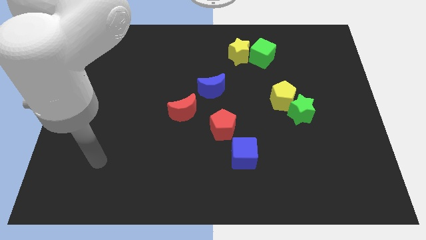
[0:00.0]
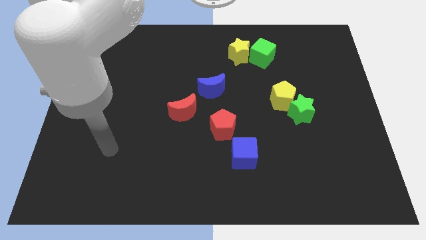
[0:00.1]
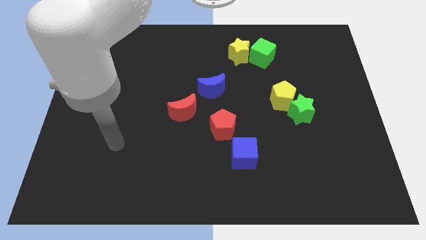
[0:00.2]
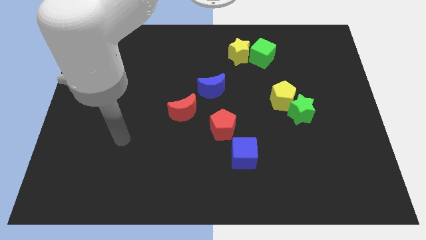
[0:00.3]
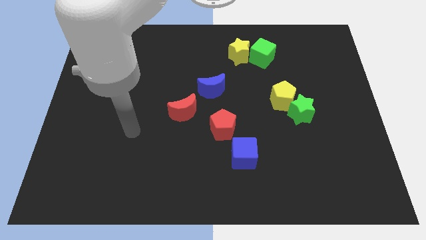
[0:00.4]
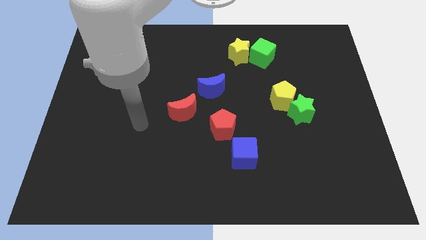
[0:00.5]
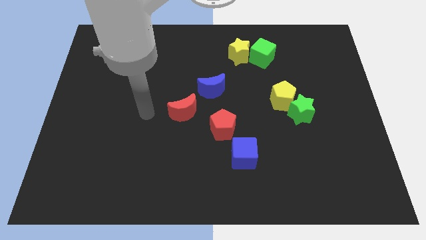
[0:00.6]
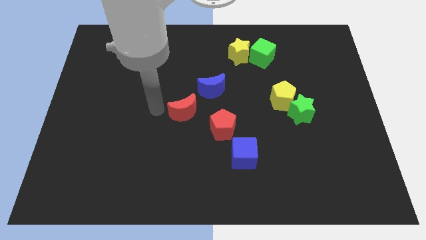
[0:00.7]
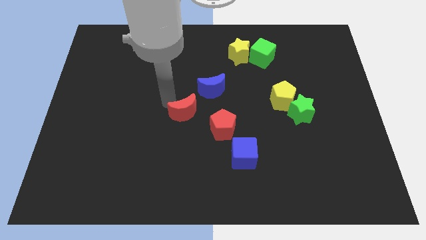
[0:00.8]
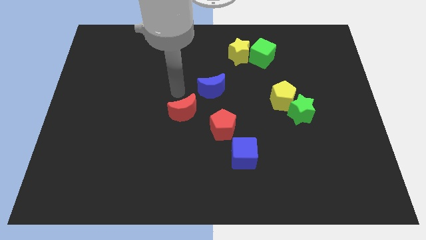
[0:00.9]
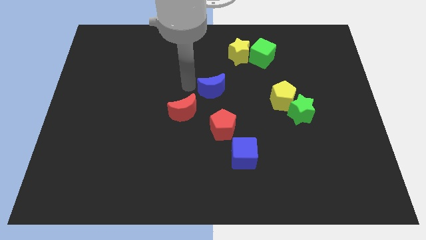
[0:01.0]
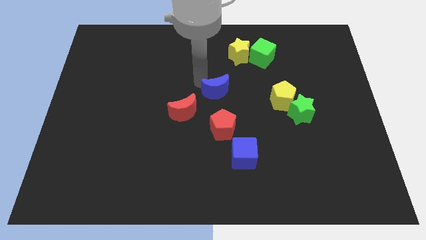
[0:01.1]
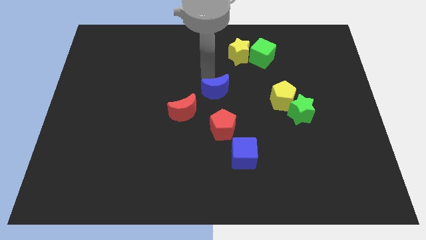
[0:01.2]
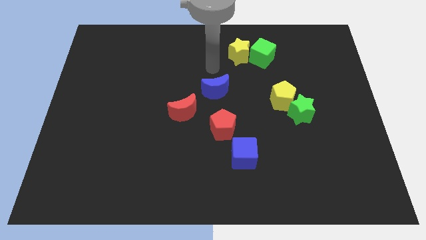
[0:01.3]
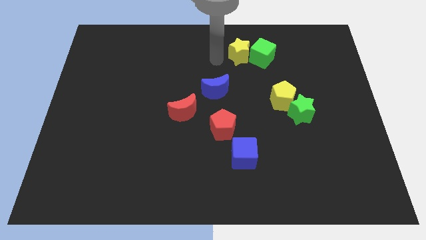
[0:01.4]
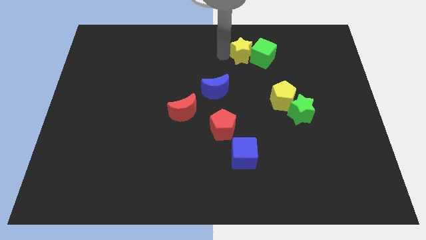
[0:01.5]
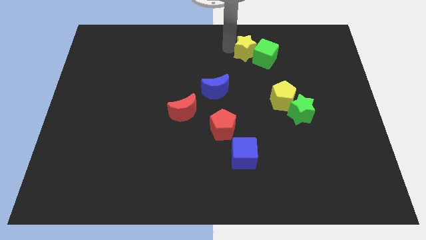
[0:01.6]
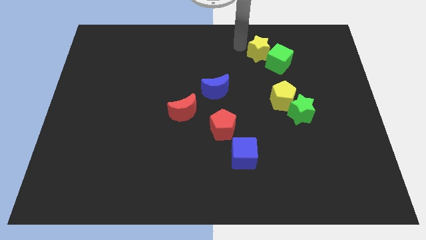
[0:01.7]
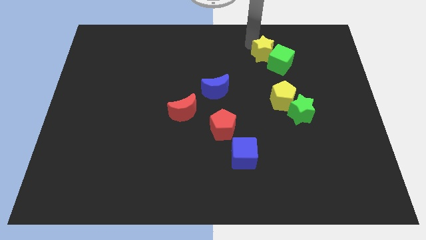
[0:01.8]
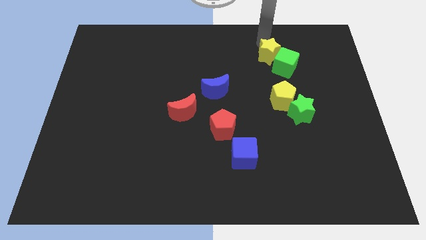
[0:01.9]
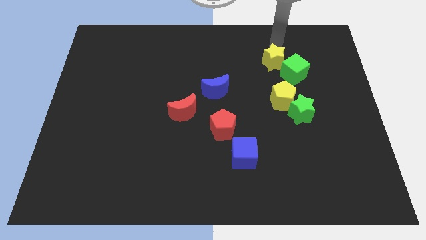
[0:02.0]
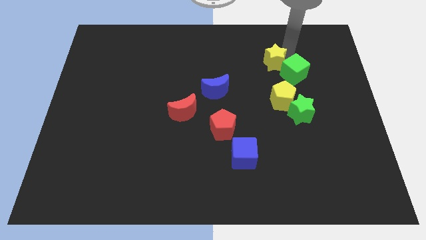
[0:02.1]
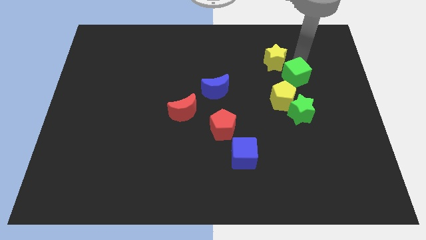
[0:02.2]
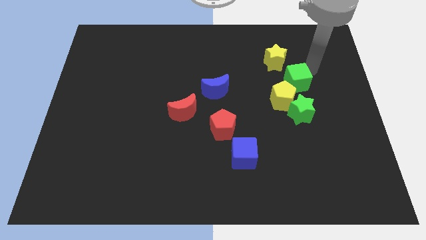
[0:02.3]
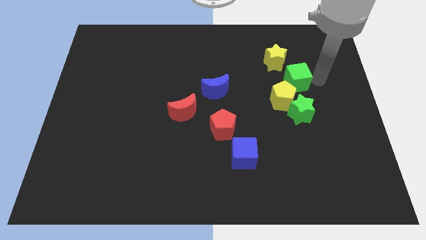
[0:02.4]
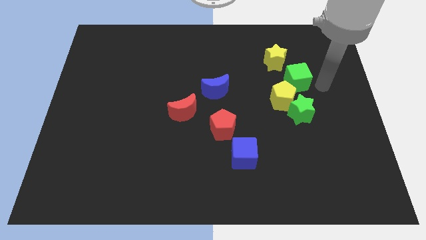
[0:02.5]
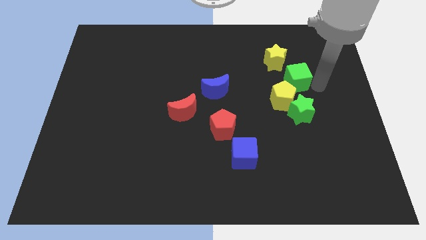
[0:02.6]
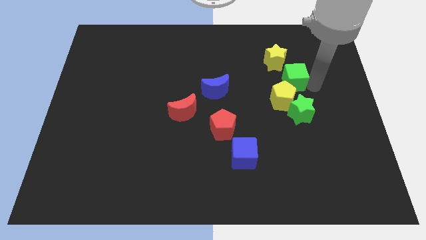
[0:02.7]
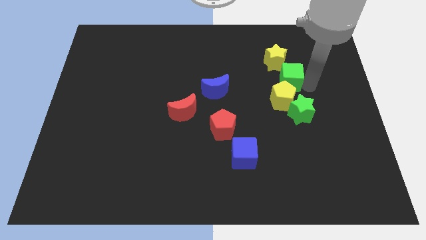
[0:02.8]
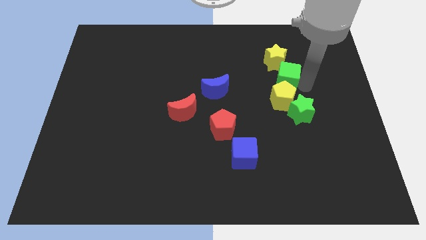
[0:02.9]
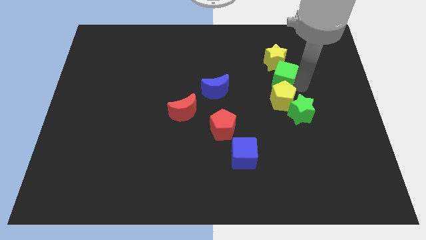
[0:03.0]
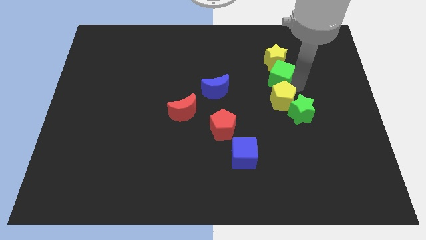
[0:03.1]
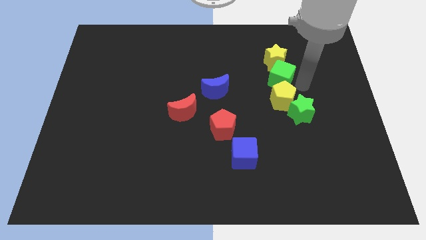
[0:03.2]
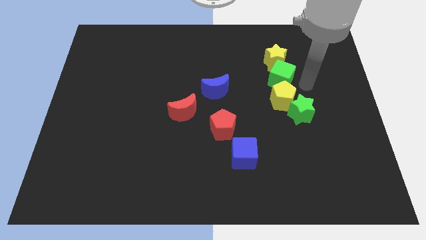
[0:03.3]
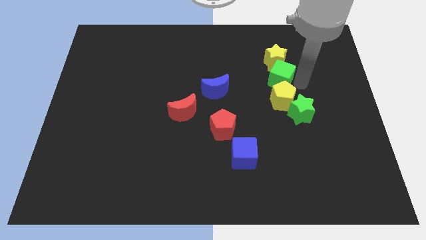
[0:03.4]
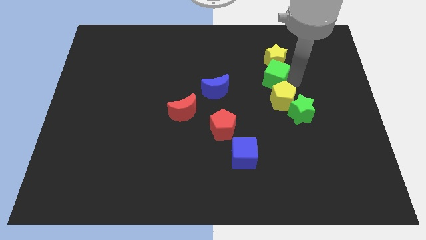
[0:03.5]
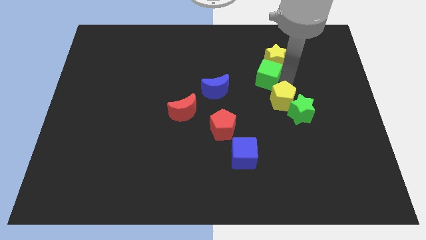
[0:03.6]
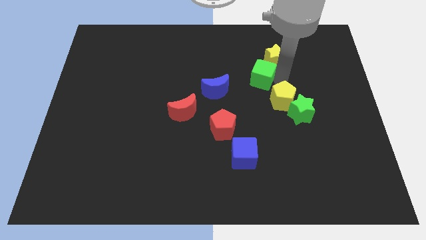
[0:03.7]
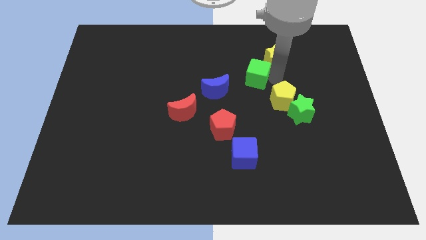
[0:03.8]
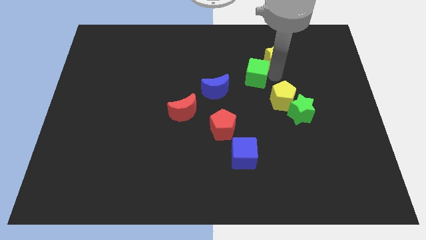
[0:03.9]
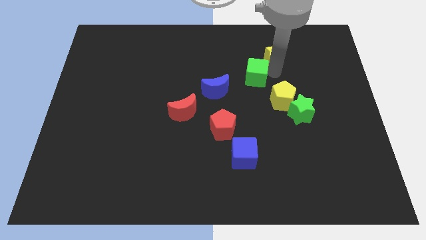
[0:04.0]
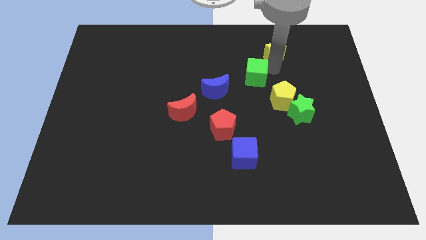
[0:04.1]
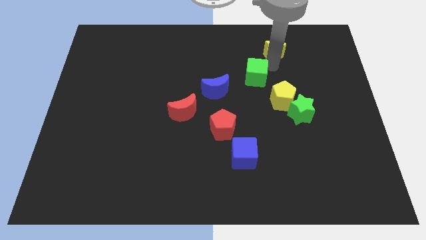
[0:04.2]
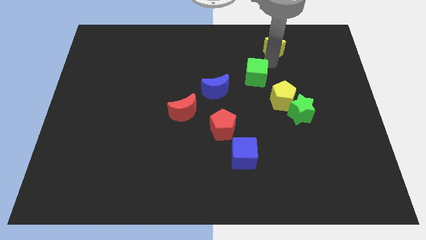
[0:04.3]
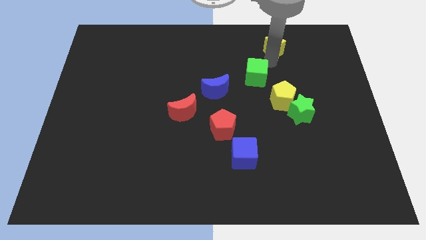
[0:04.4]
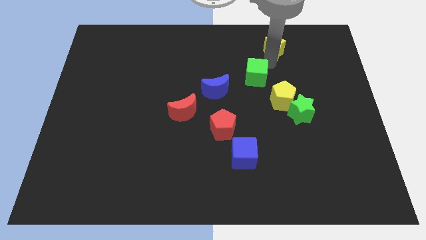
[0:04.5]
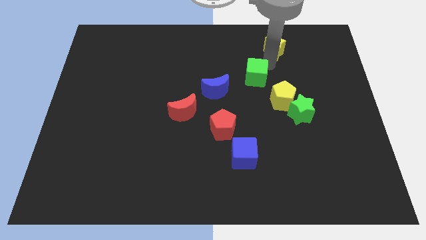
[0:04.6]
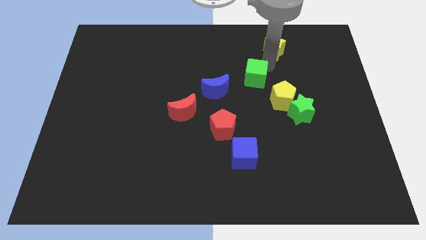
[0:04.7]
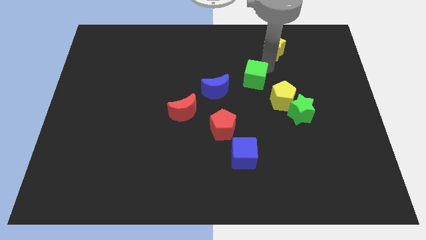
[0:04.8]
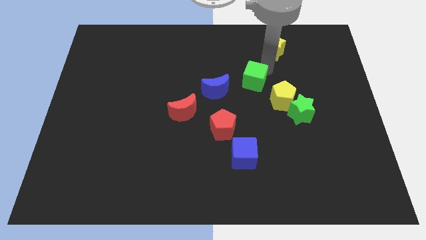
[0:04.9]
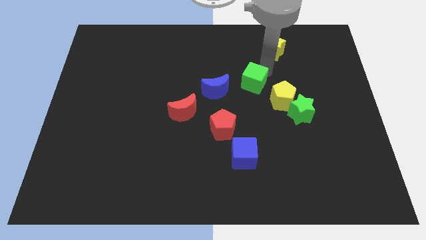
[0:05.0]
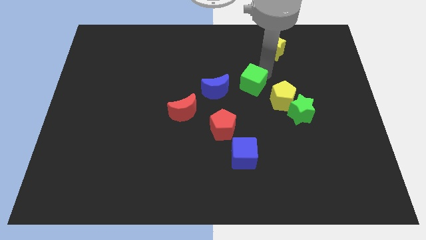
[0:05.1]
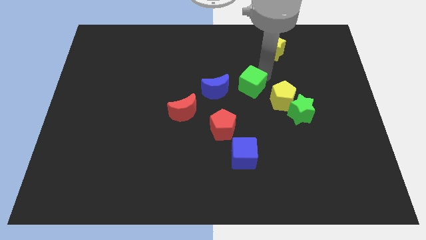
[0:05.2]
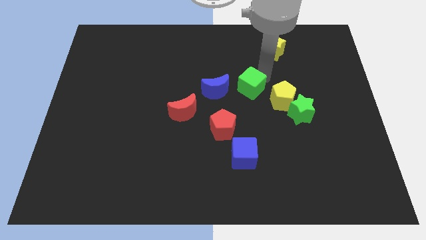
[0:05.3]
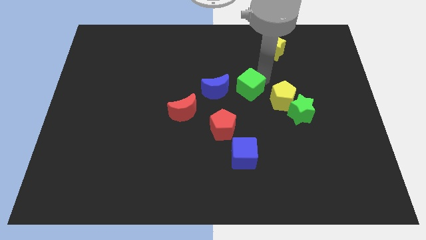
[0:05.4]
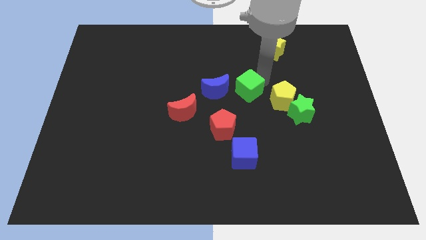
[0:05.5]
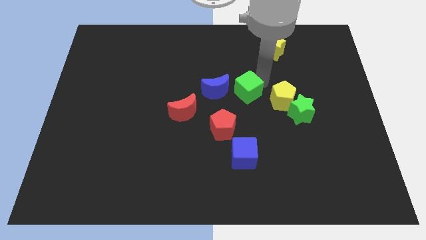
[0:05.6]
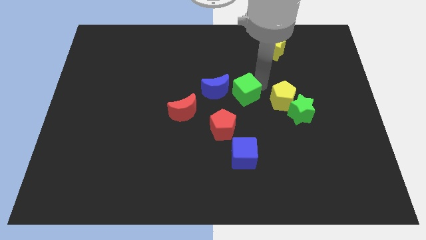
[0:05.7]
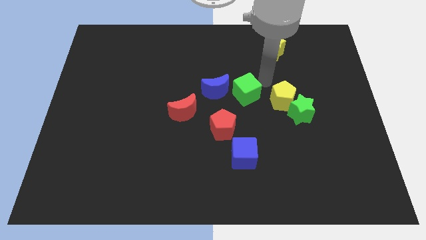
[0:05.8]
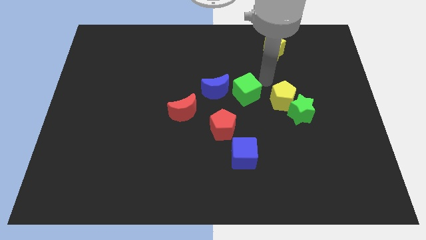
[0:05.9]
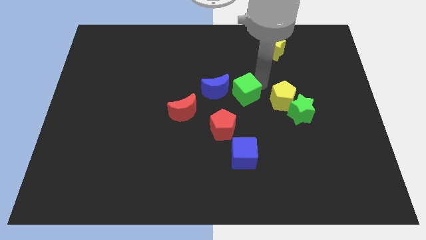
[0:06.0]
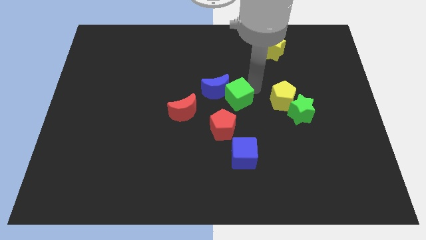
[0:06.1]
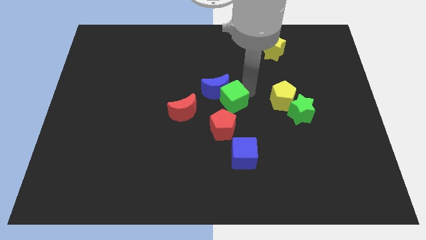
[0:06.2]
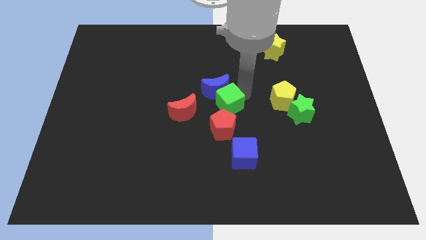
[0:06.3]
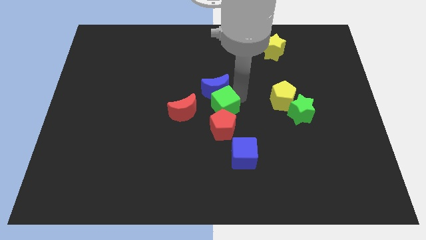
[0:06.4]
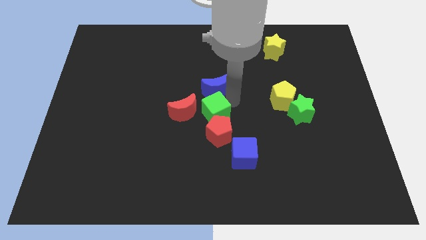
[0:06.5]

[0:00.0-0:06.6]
slide the green cube downwards and left diagonally

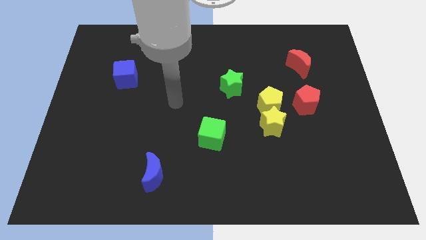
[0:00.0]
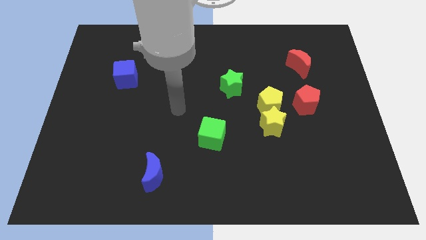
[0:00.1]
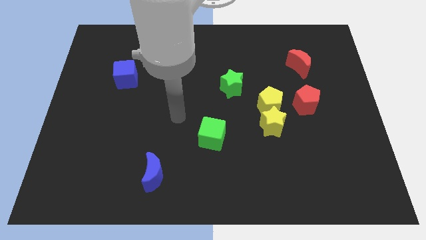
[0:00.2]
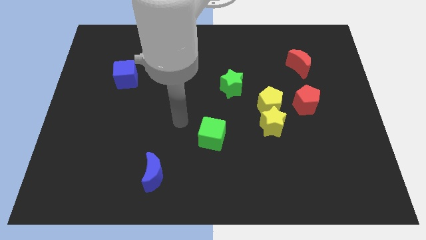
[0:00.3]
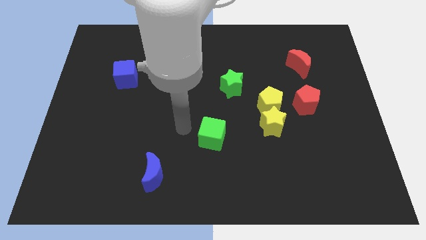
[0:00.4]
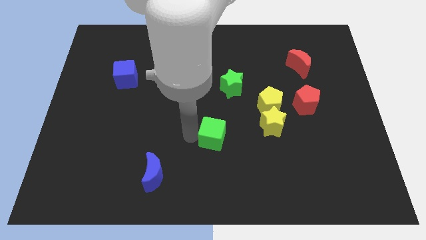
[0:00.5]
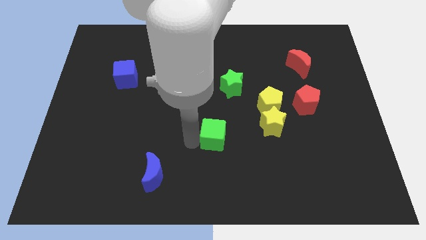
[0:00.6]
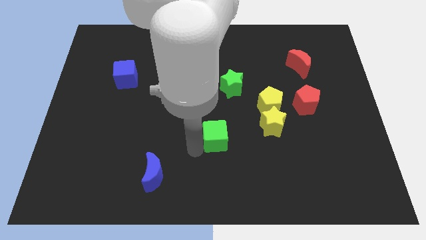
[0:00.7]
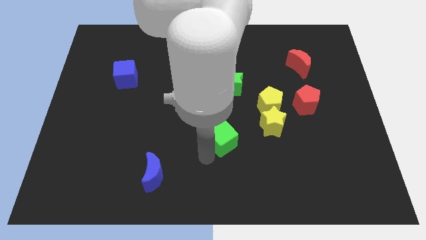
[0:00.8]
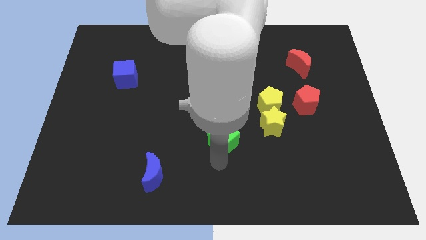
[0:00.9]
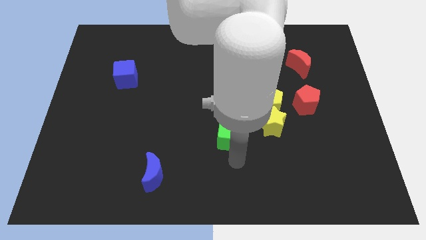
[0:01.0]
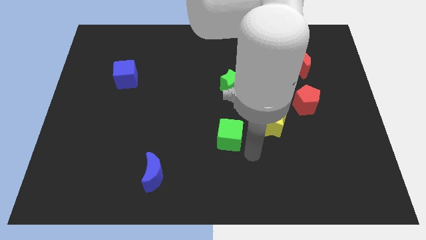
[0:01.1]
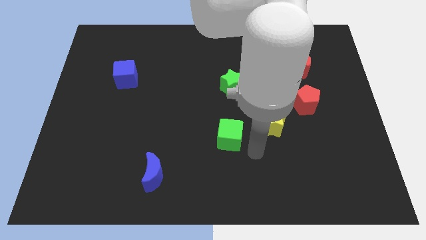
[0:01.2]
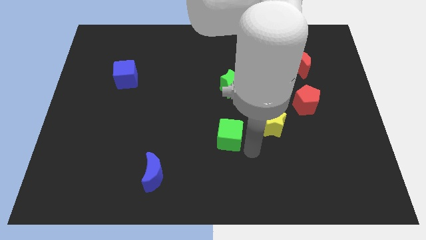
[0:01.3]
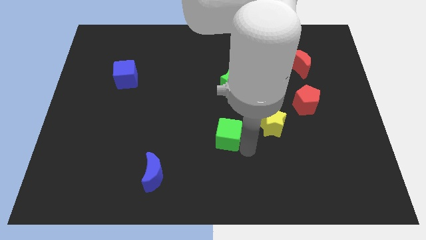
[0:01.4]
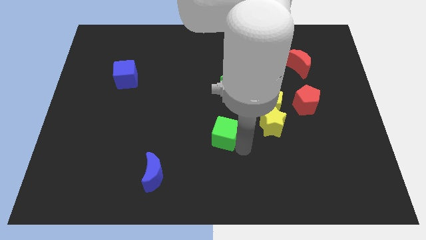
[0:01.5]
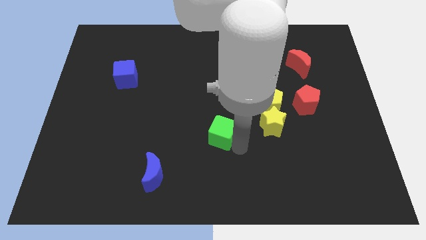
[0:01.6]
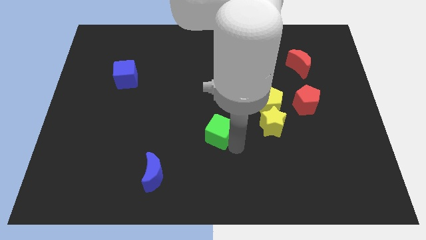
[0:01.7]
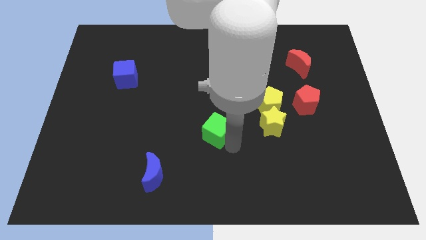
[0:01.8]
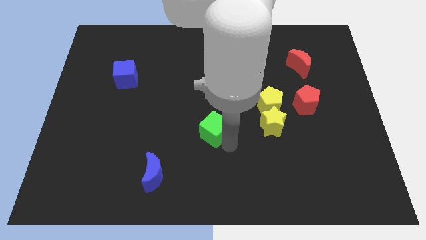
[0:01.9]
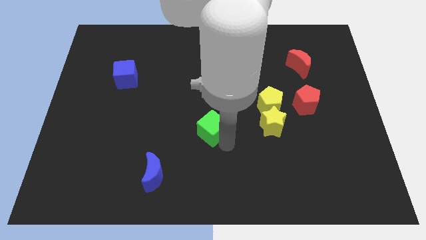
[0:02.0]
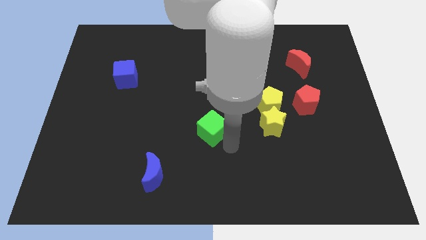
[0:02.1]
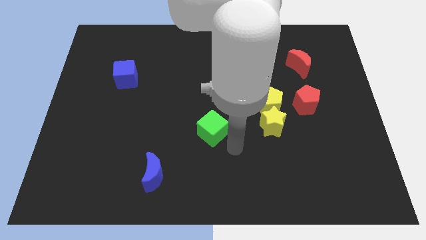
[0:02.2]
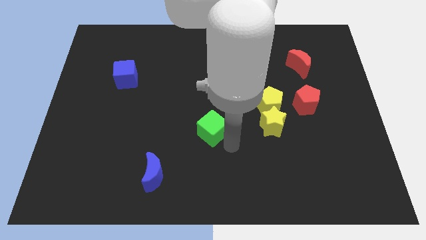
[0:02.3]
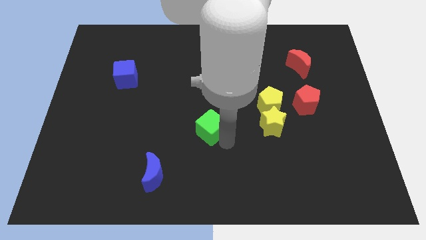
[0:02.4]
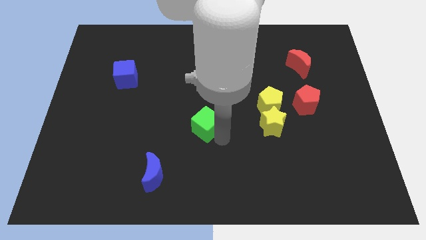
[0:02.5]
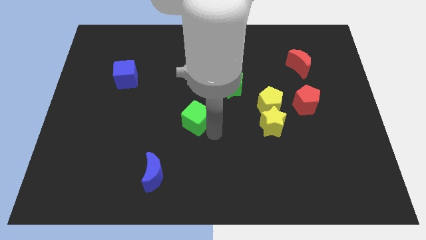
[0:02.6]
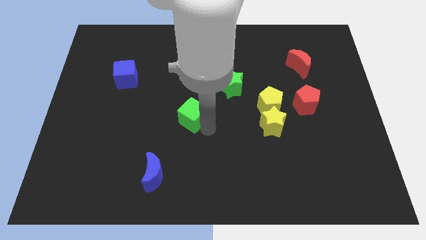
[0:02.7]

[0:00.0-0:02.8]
slightly push the green cube up and to the left
